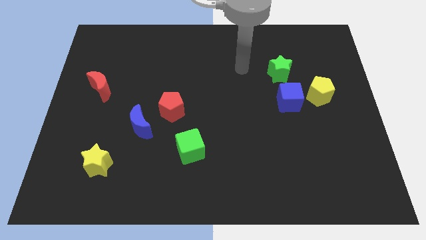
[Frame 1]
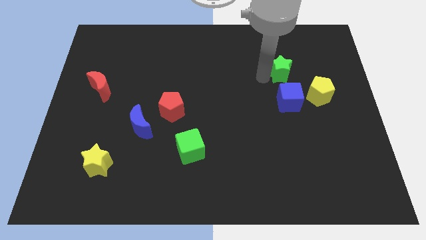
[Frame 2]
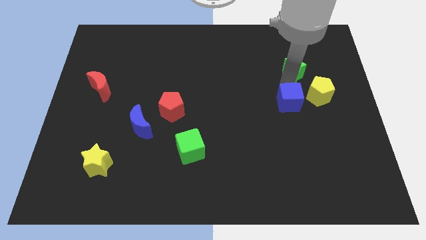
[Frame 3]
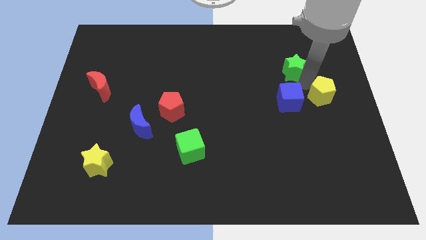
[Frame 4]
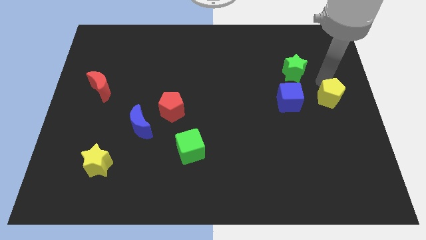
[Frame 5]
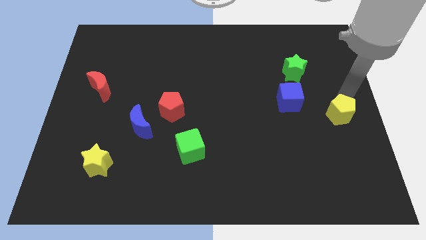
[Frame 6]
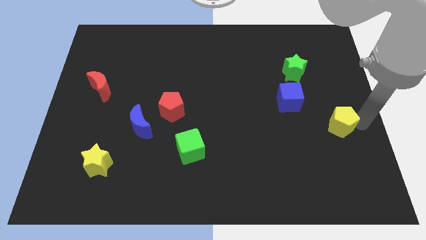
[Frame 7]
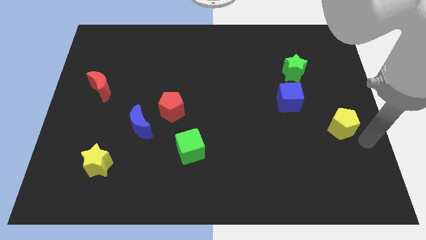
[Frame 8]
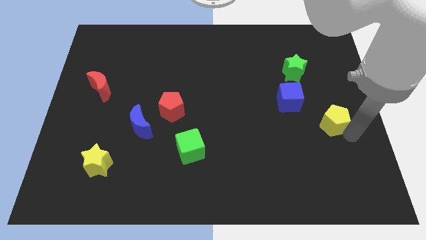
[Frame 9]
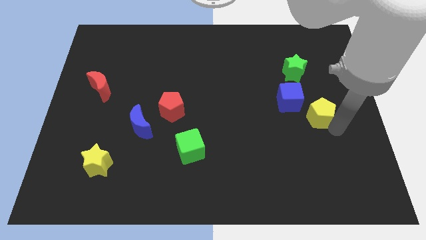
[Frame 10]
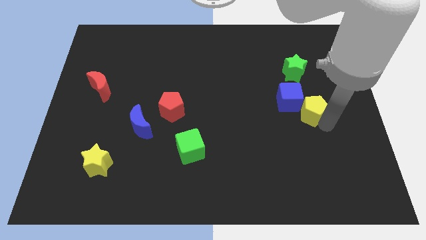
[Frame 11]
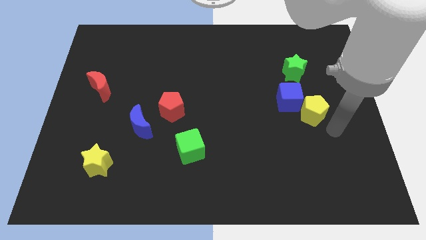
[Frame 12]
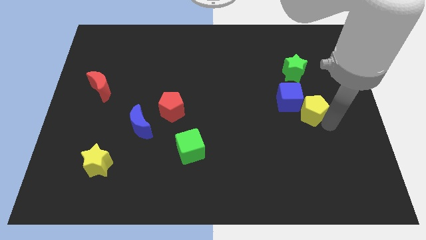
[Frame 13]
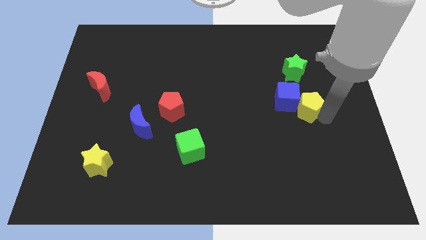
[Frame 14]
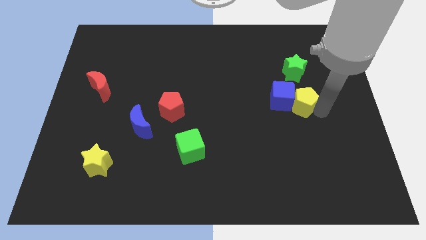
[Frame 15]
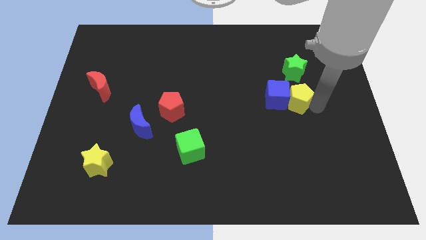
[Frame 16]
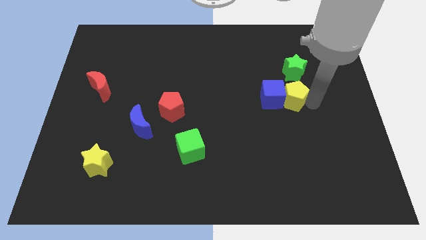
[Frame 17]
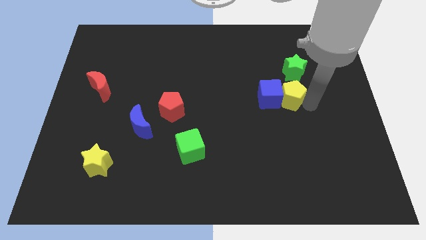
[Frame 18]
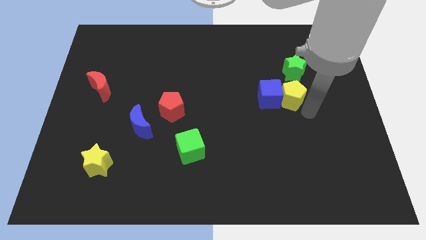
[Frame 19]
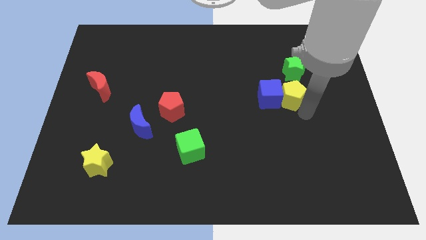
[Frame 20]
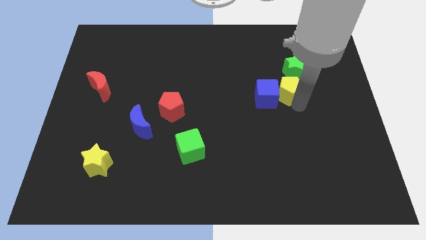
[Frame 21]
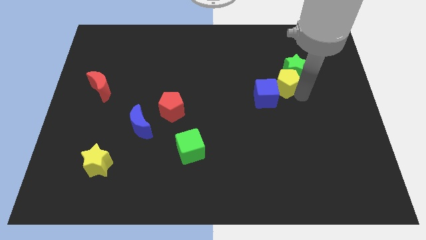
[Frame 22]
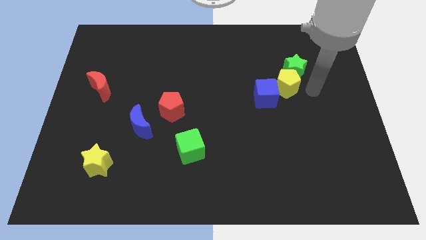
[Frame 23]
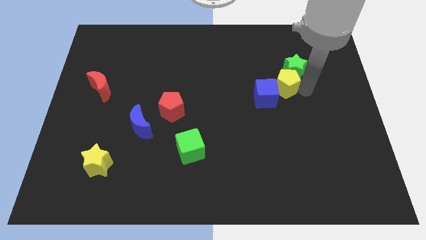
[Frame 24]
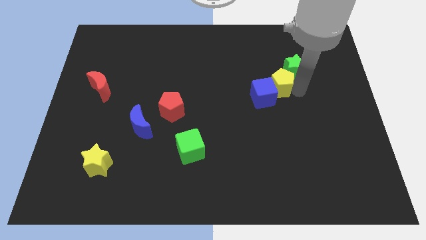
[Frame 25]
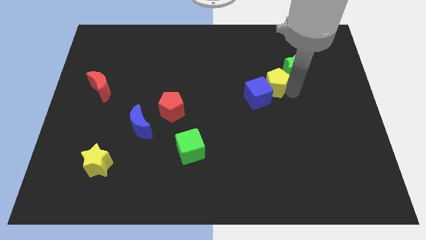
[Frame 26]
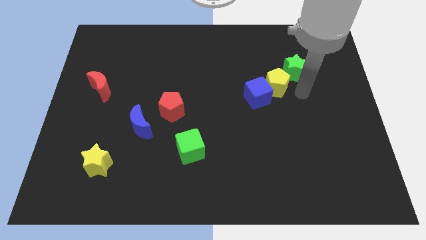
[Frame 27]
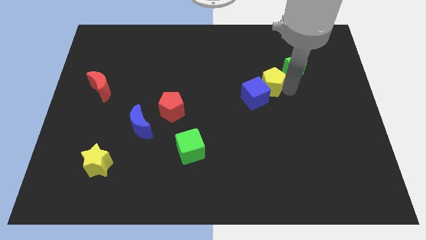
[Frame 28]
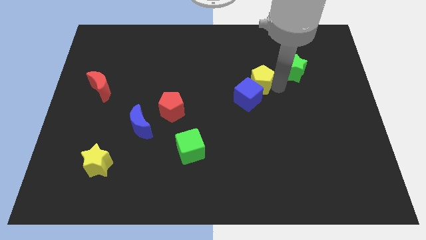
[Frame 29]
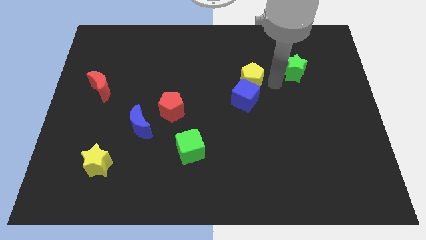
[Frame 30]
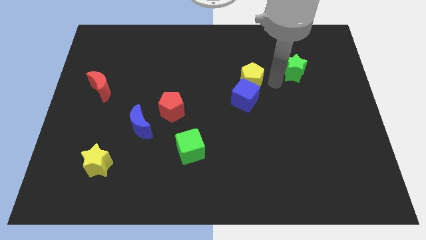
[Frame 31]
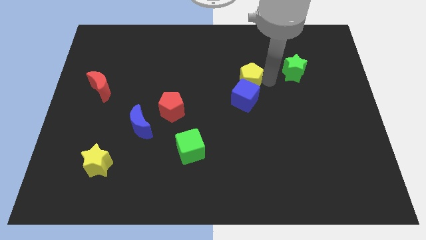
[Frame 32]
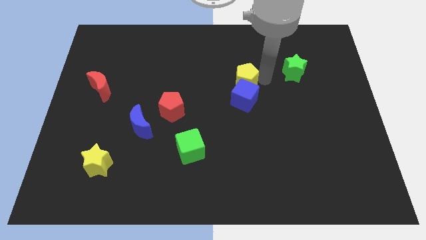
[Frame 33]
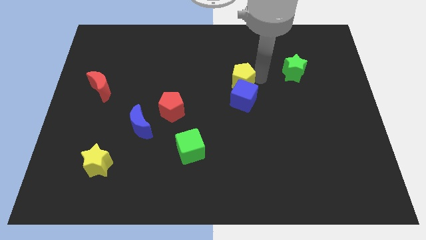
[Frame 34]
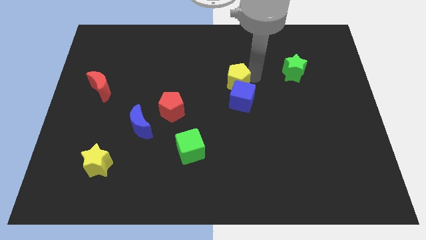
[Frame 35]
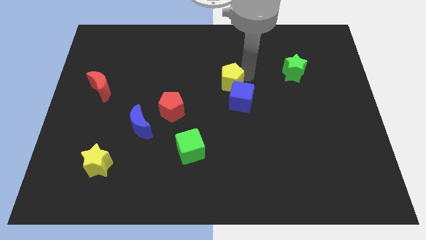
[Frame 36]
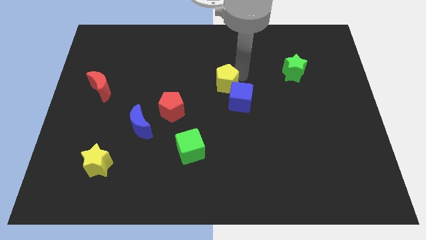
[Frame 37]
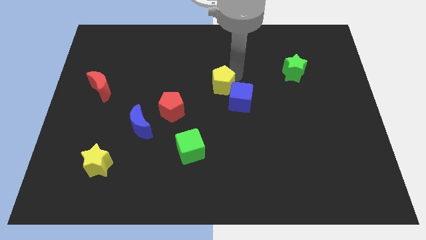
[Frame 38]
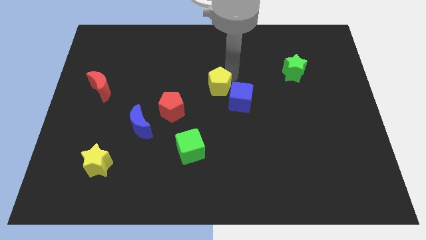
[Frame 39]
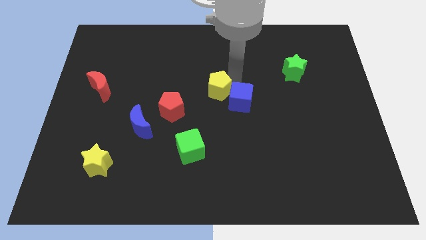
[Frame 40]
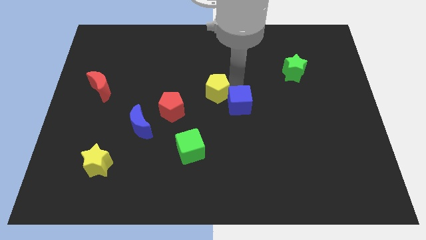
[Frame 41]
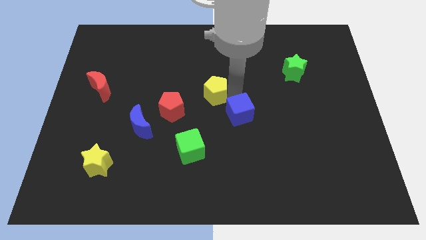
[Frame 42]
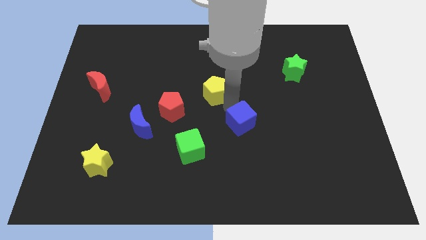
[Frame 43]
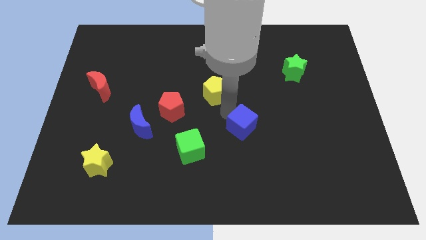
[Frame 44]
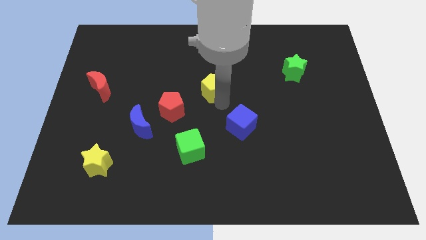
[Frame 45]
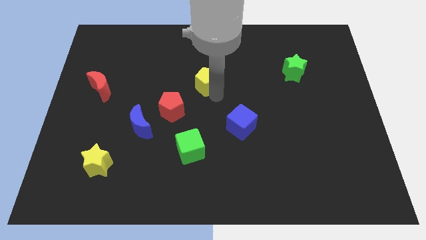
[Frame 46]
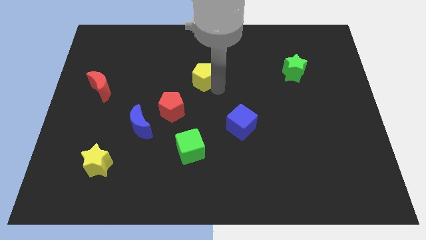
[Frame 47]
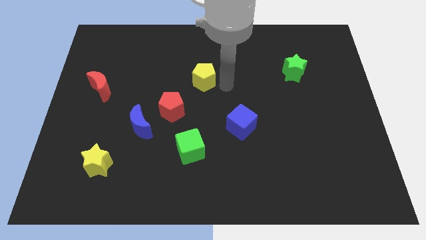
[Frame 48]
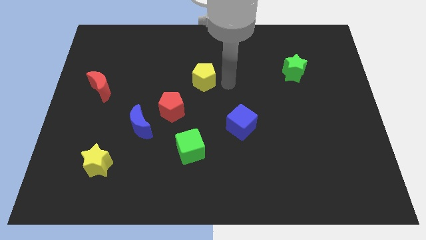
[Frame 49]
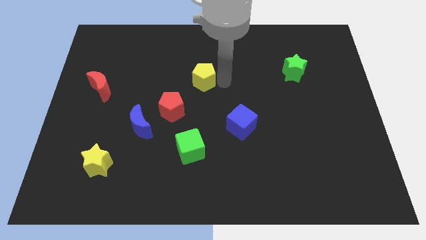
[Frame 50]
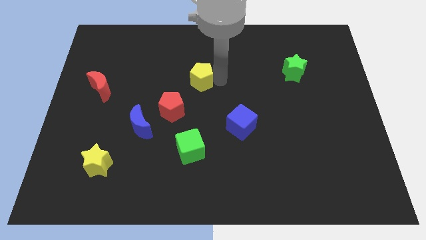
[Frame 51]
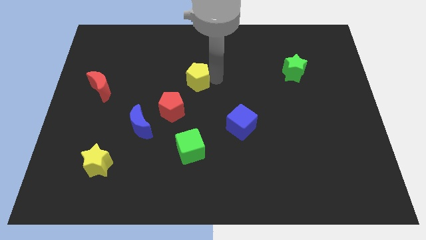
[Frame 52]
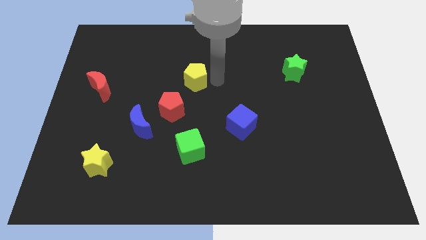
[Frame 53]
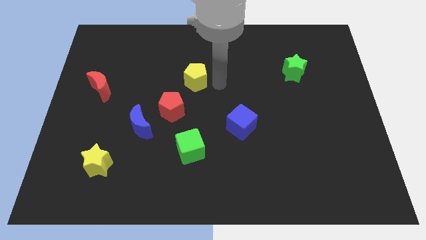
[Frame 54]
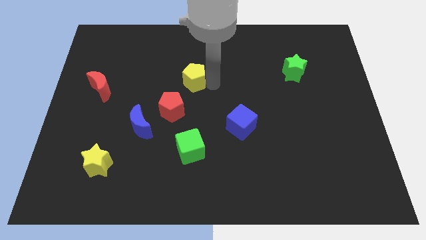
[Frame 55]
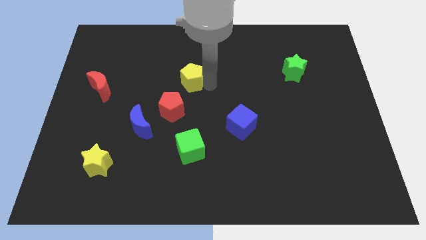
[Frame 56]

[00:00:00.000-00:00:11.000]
push the yellow pentagon above the red pentagon

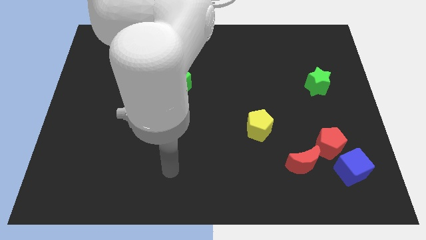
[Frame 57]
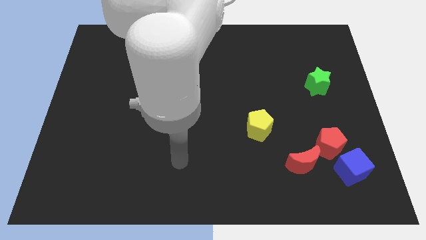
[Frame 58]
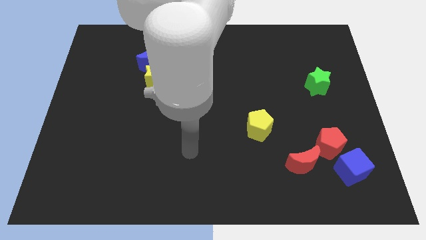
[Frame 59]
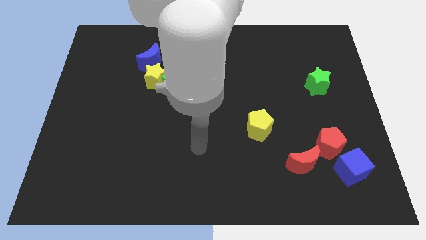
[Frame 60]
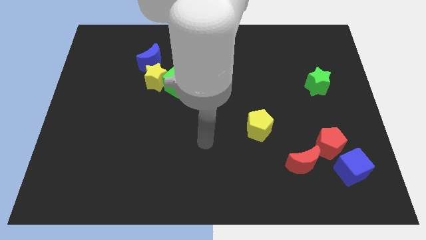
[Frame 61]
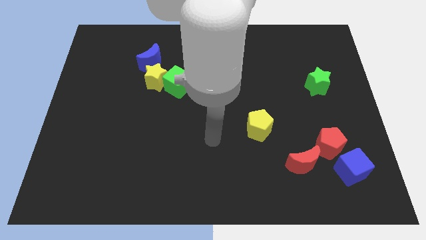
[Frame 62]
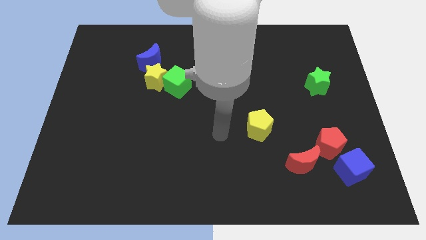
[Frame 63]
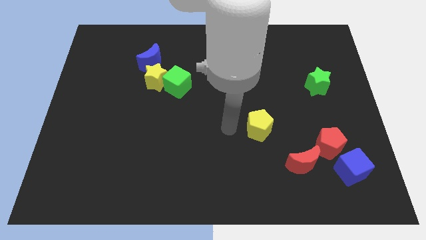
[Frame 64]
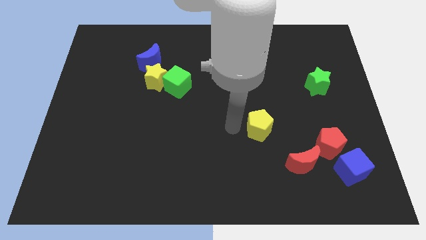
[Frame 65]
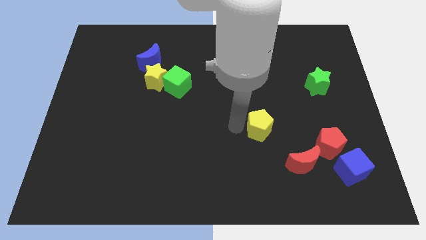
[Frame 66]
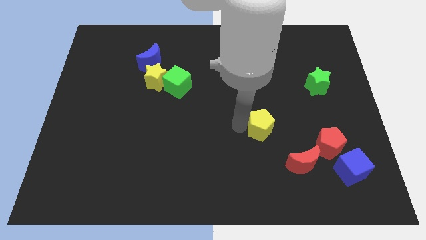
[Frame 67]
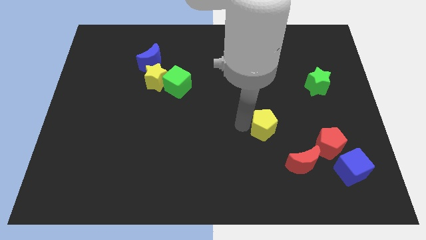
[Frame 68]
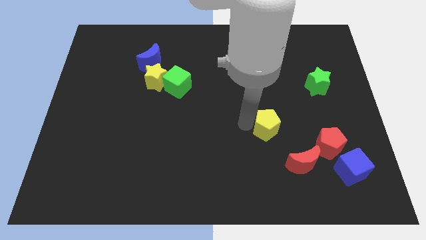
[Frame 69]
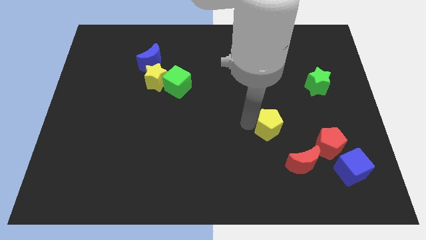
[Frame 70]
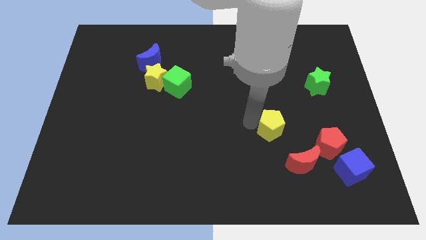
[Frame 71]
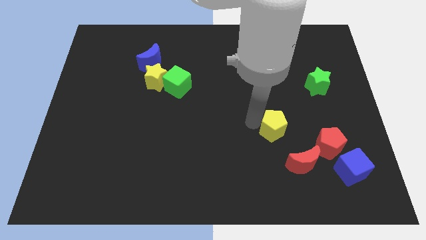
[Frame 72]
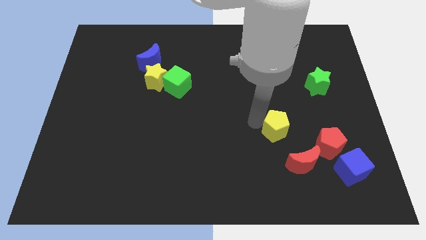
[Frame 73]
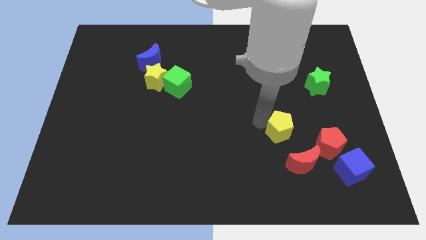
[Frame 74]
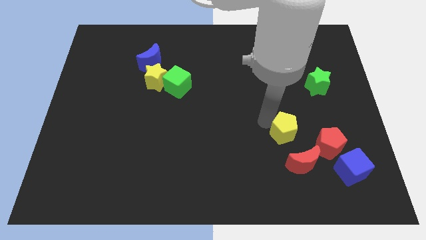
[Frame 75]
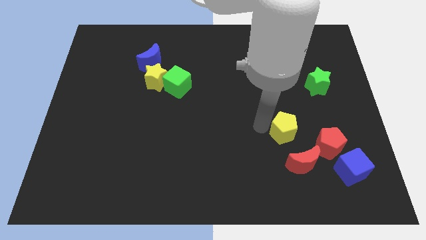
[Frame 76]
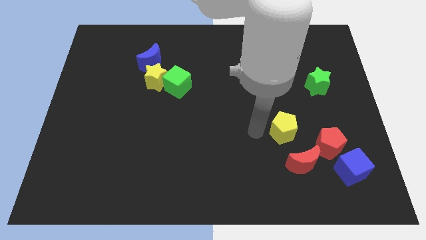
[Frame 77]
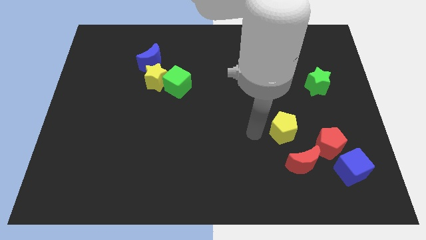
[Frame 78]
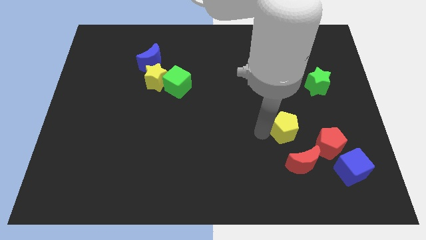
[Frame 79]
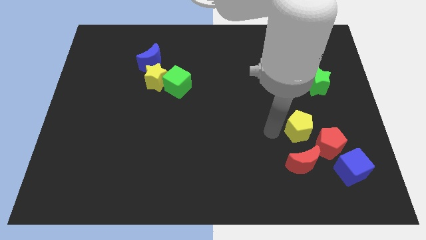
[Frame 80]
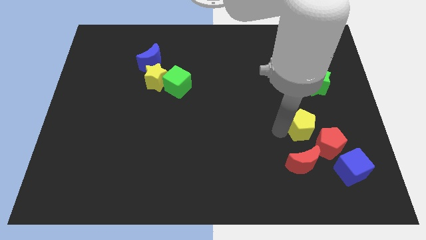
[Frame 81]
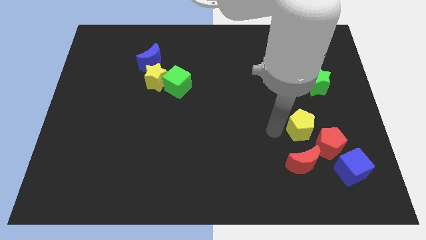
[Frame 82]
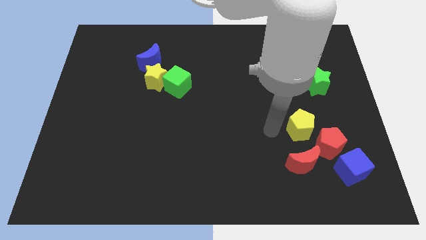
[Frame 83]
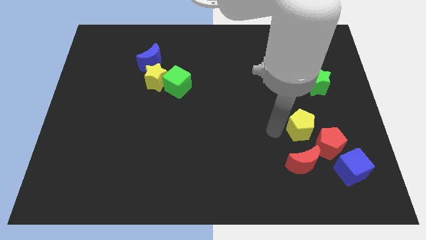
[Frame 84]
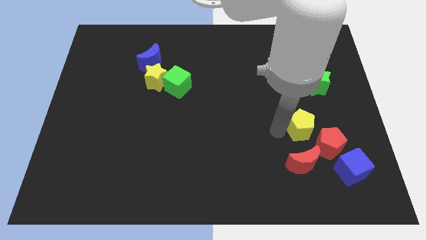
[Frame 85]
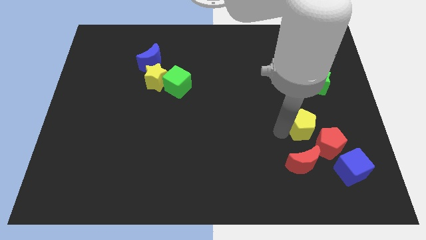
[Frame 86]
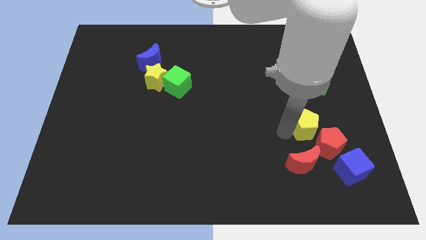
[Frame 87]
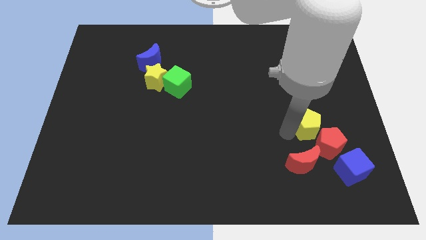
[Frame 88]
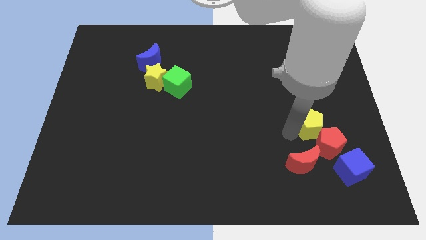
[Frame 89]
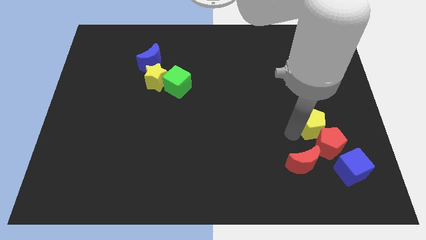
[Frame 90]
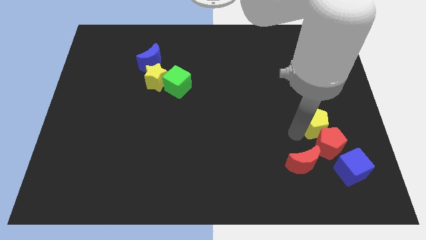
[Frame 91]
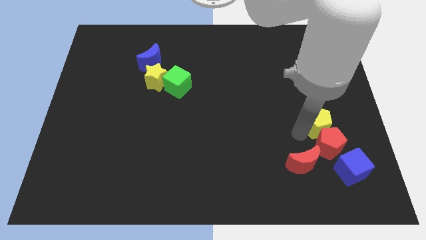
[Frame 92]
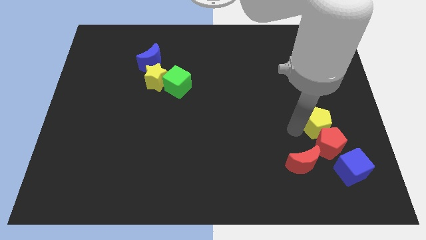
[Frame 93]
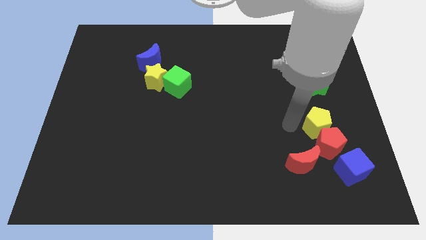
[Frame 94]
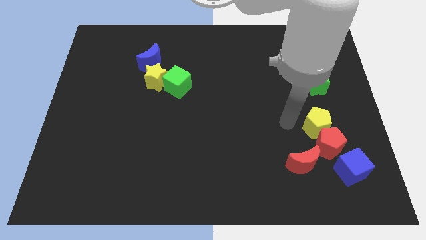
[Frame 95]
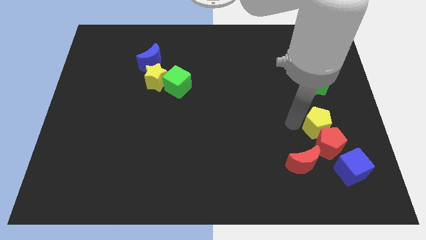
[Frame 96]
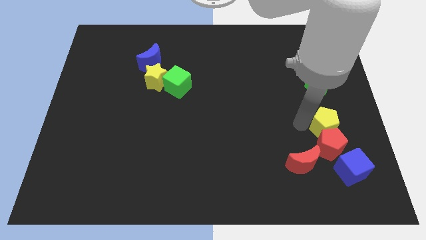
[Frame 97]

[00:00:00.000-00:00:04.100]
slide the yellow pentagon to the top side of the blue cube
